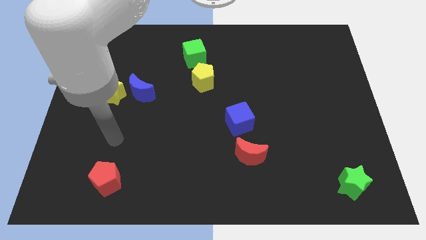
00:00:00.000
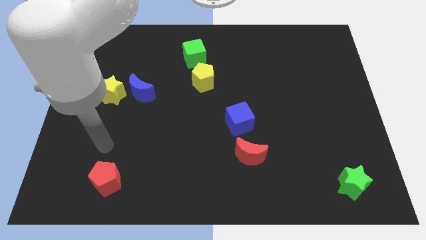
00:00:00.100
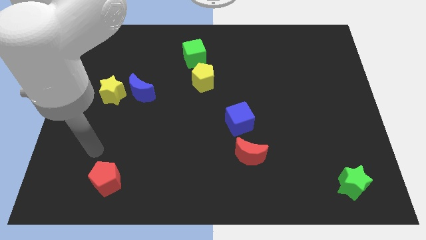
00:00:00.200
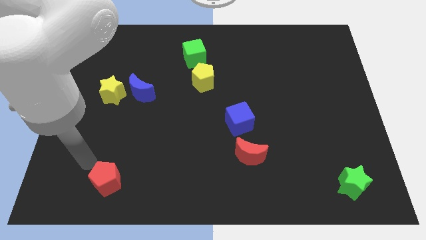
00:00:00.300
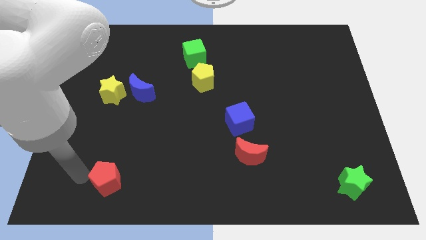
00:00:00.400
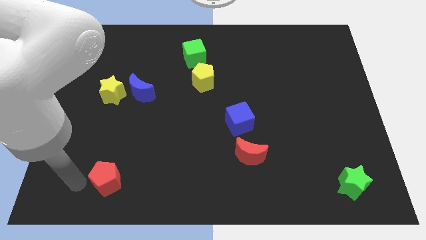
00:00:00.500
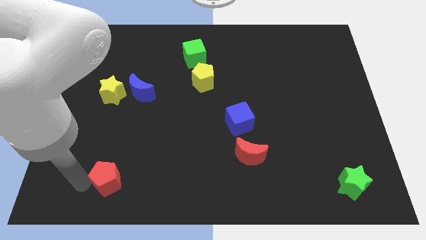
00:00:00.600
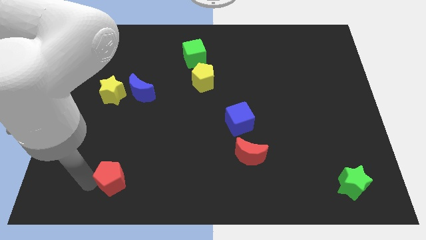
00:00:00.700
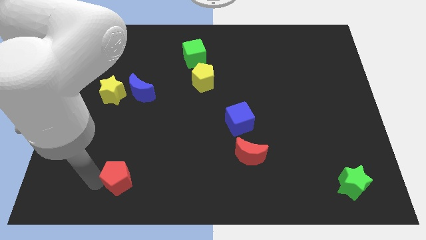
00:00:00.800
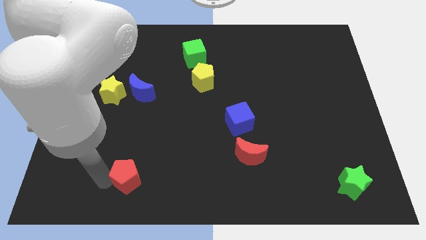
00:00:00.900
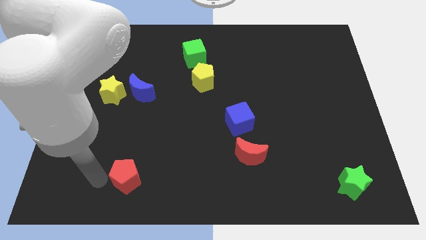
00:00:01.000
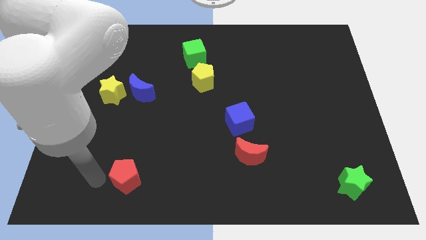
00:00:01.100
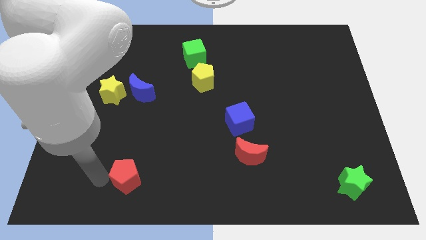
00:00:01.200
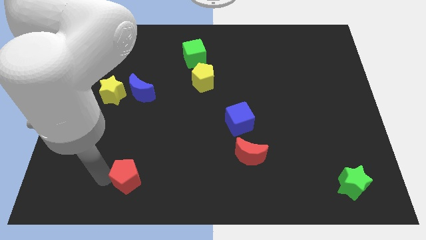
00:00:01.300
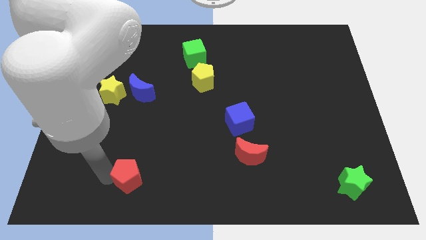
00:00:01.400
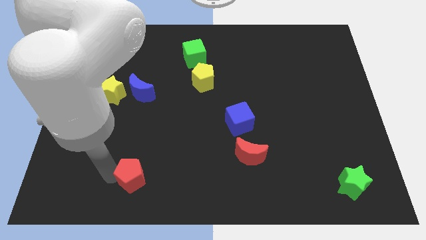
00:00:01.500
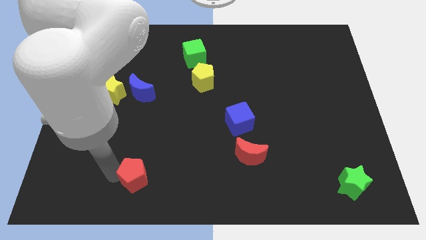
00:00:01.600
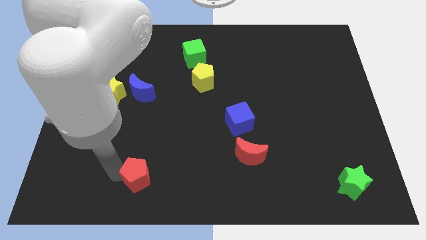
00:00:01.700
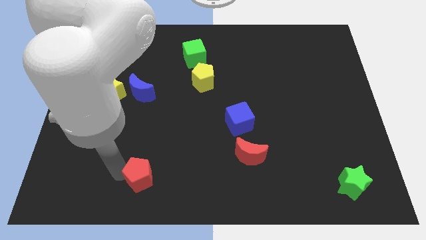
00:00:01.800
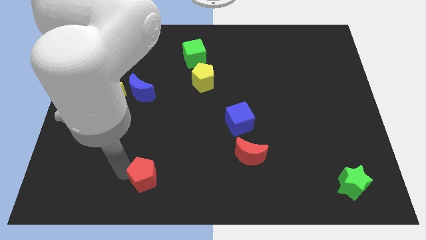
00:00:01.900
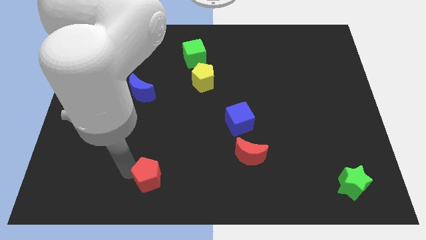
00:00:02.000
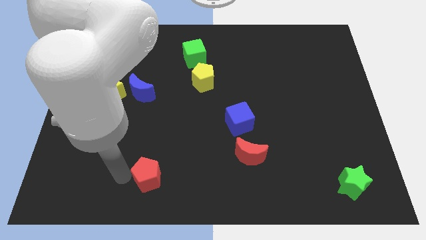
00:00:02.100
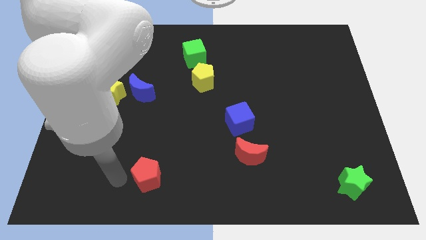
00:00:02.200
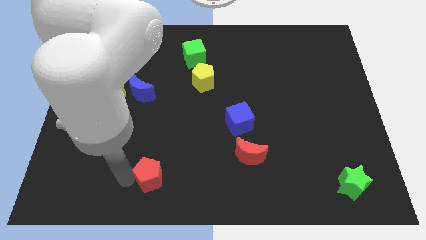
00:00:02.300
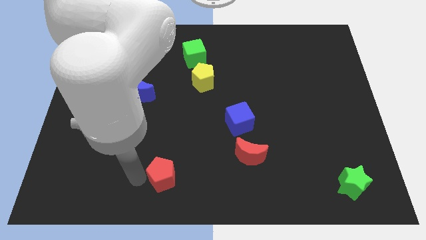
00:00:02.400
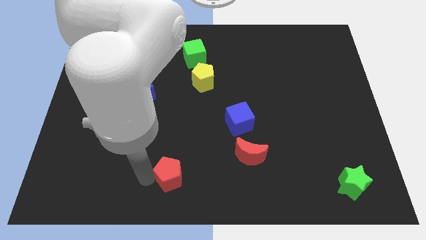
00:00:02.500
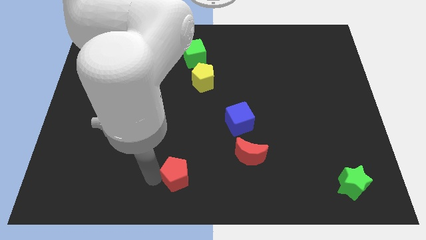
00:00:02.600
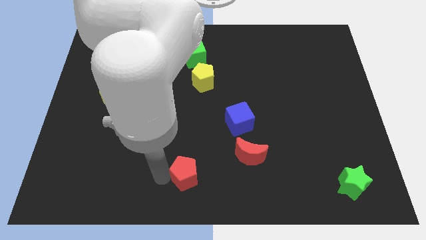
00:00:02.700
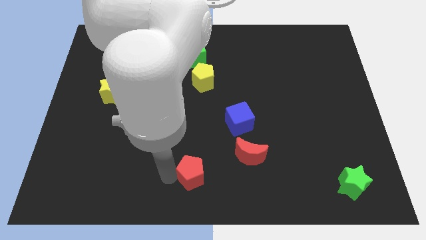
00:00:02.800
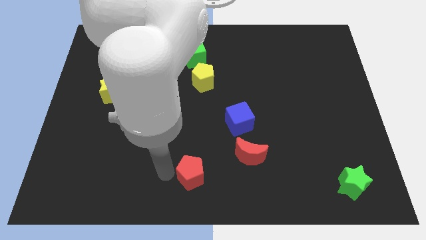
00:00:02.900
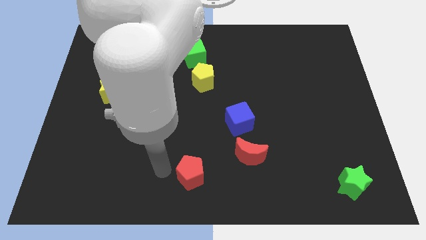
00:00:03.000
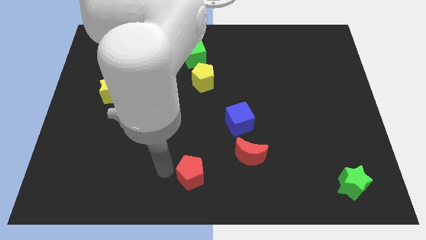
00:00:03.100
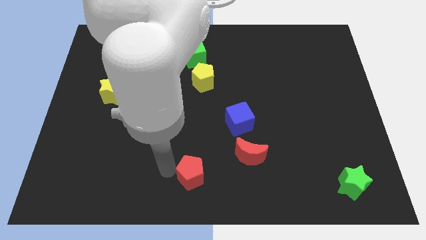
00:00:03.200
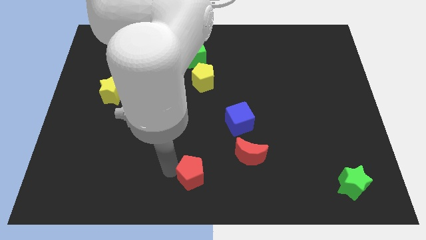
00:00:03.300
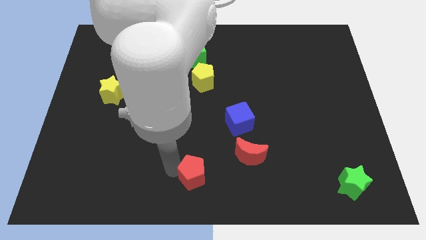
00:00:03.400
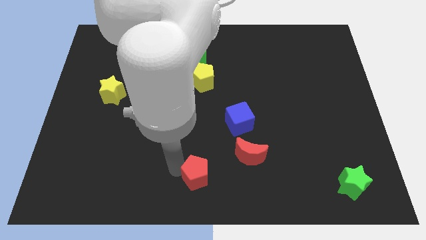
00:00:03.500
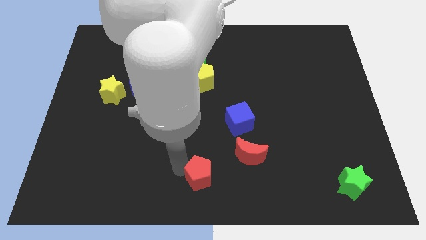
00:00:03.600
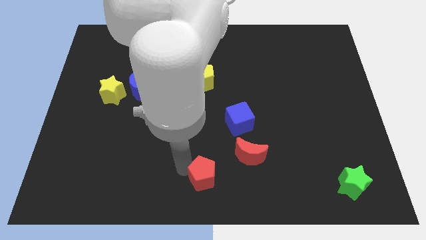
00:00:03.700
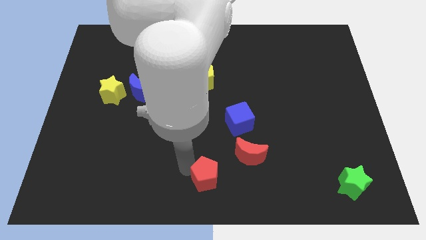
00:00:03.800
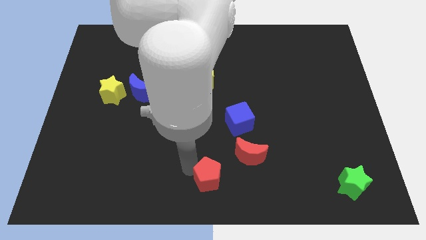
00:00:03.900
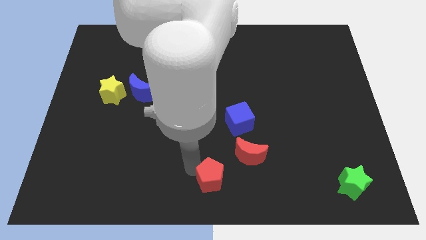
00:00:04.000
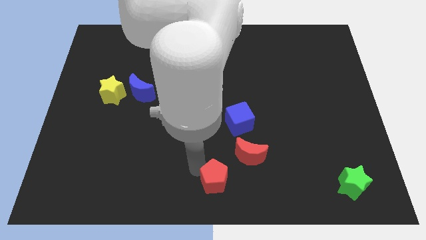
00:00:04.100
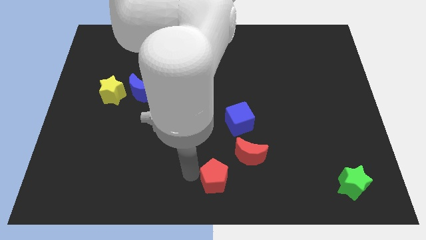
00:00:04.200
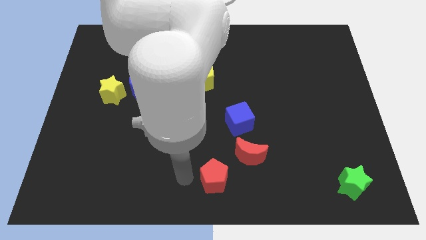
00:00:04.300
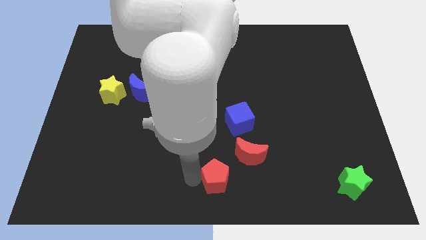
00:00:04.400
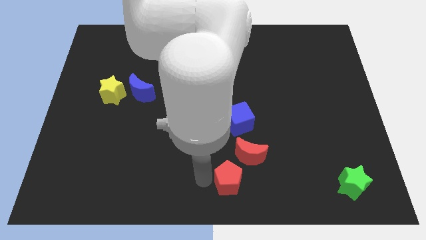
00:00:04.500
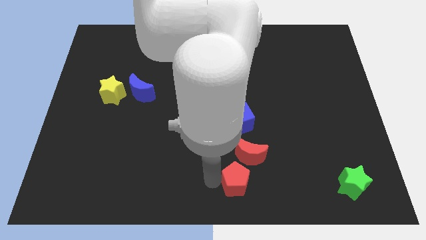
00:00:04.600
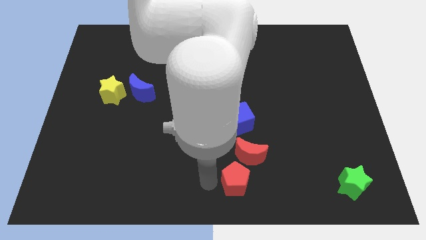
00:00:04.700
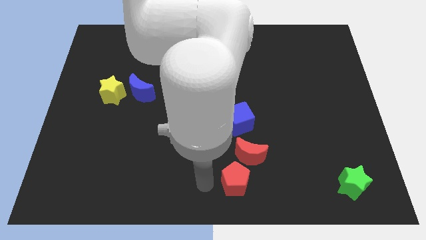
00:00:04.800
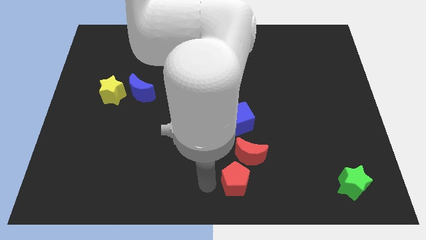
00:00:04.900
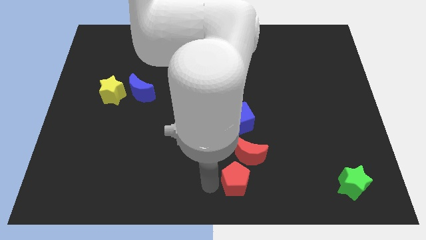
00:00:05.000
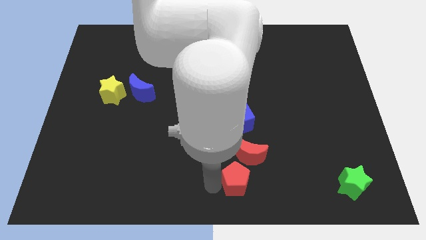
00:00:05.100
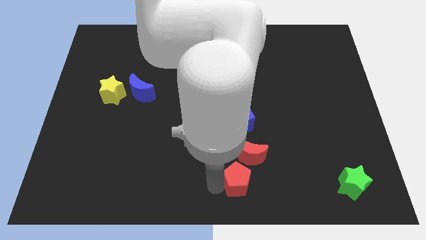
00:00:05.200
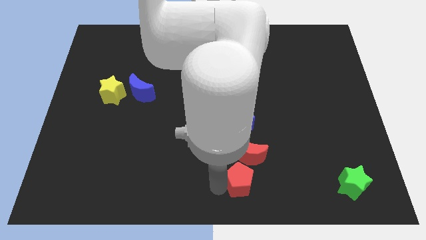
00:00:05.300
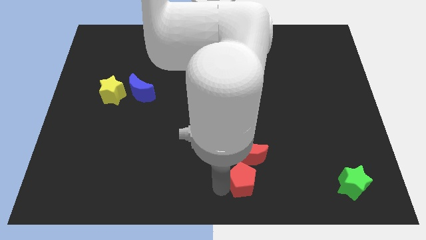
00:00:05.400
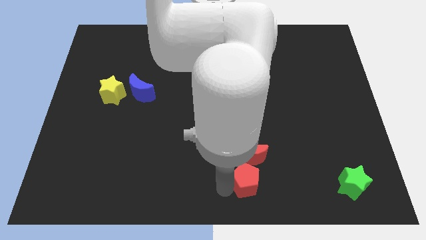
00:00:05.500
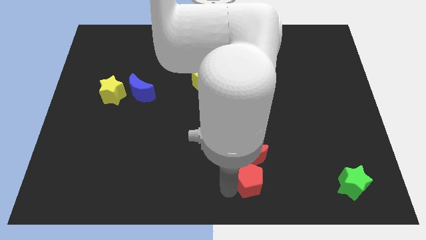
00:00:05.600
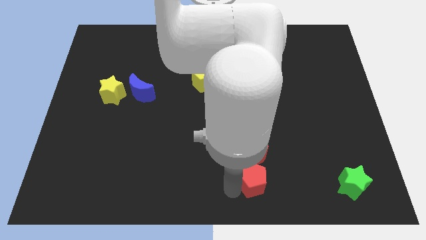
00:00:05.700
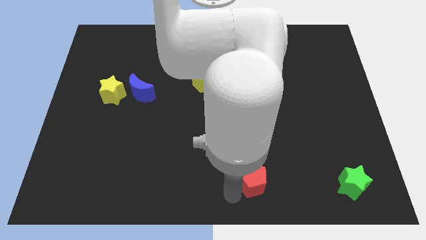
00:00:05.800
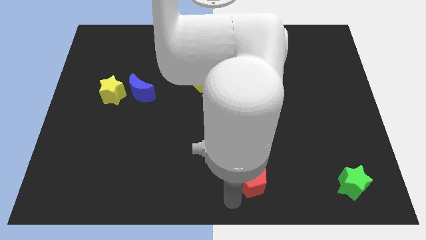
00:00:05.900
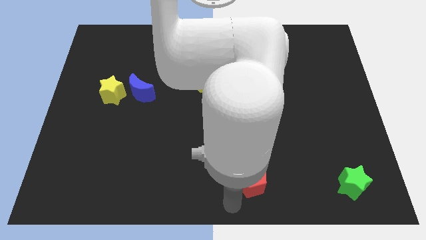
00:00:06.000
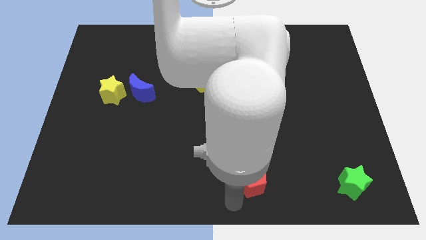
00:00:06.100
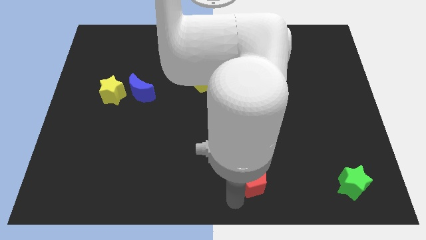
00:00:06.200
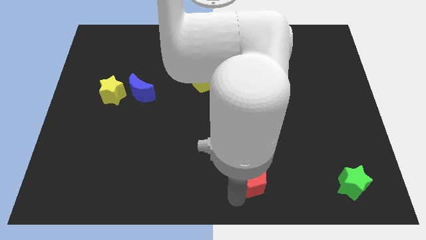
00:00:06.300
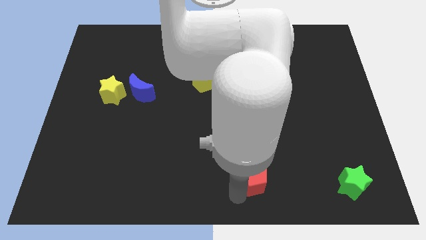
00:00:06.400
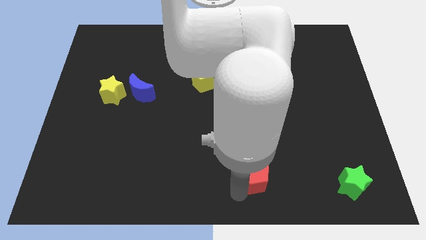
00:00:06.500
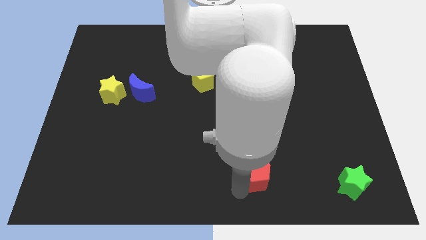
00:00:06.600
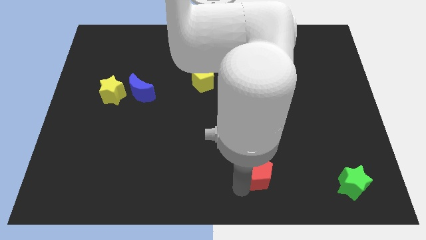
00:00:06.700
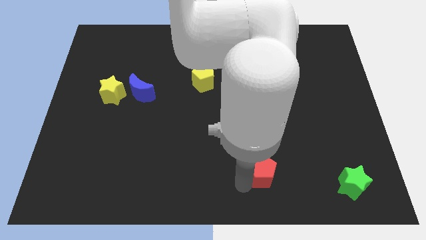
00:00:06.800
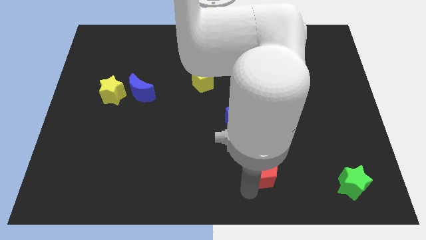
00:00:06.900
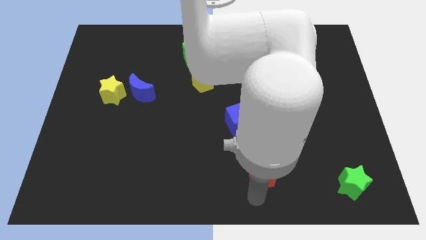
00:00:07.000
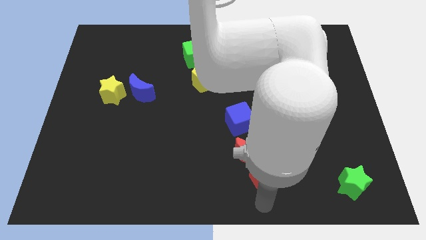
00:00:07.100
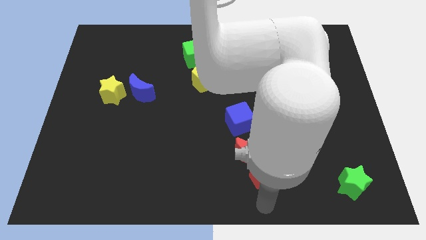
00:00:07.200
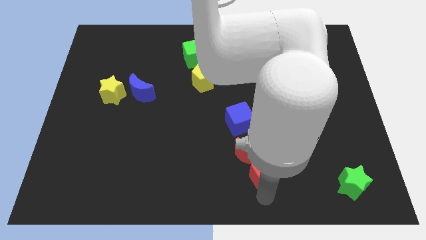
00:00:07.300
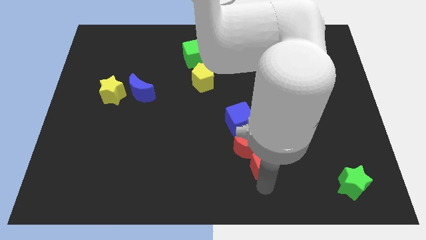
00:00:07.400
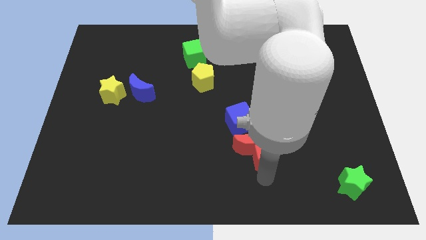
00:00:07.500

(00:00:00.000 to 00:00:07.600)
slide the red pentagon to the bottom right of the blue cube
